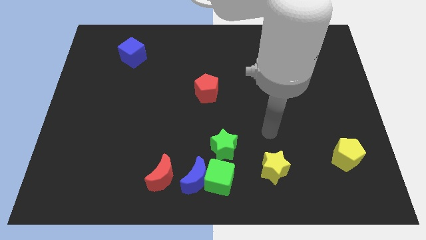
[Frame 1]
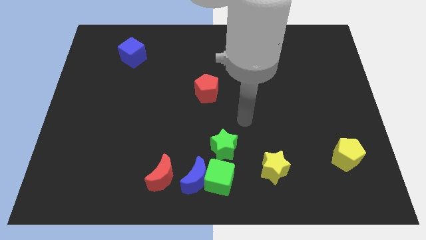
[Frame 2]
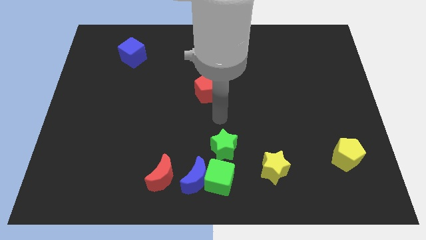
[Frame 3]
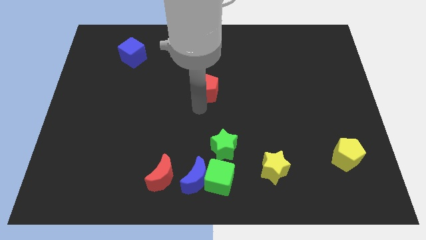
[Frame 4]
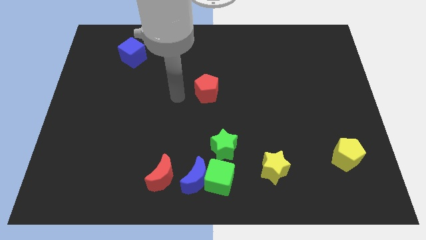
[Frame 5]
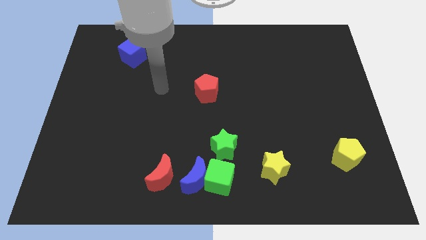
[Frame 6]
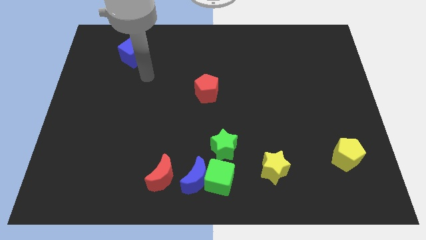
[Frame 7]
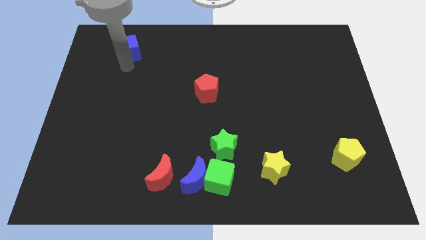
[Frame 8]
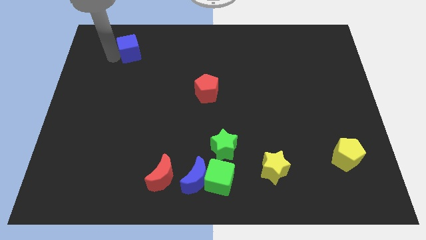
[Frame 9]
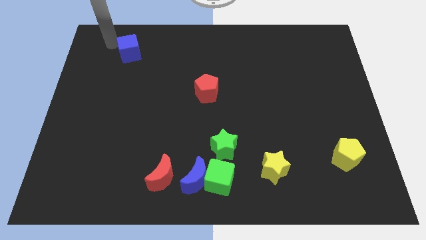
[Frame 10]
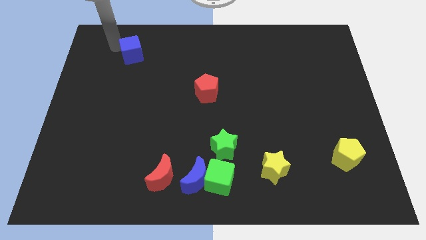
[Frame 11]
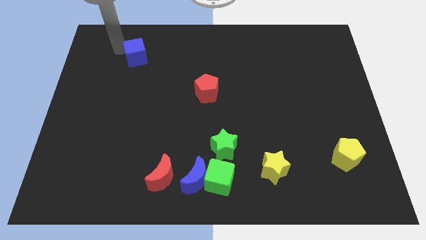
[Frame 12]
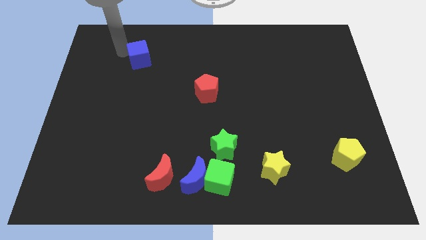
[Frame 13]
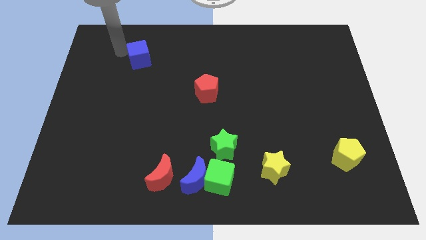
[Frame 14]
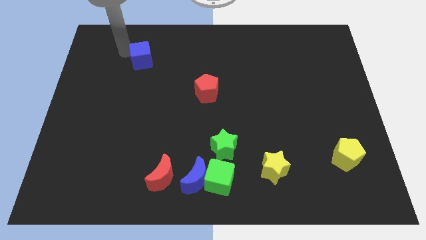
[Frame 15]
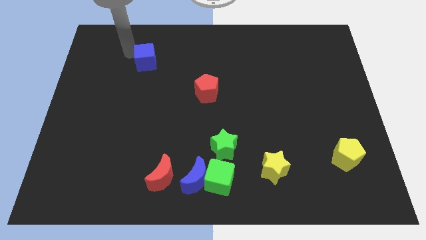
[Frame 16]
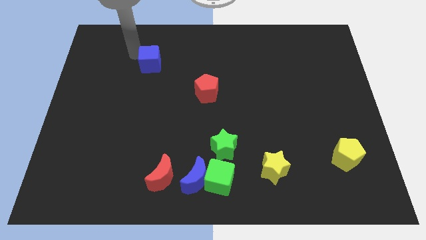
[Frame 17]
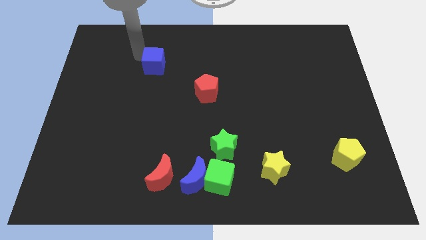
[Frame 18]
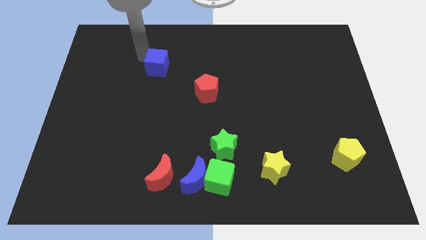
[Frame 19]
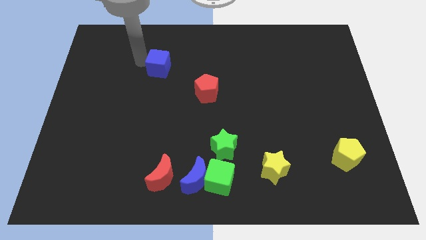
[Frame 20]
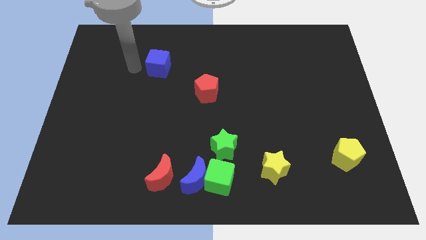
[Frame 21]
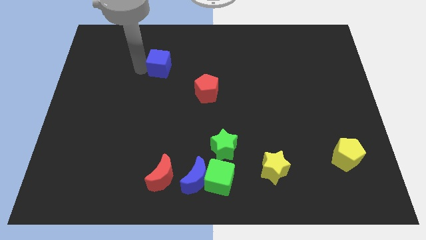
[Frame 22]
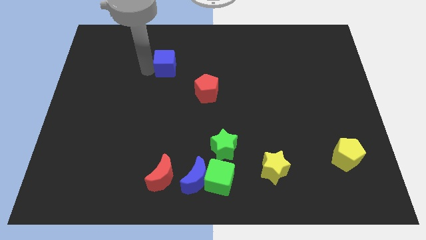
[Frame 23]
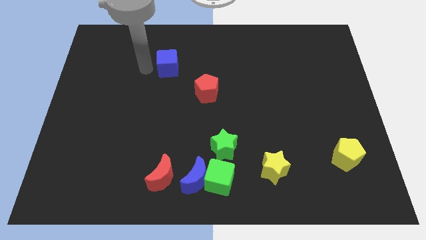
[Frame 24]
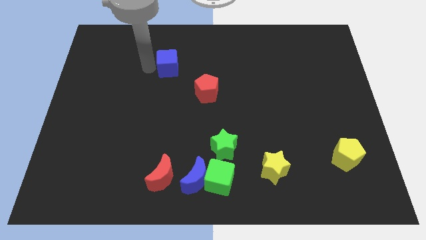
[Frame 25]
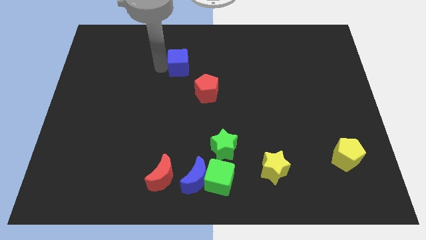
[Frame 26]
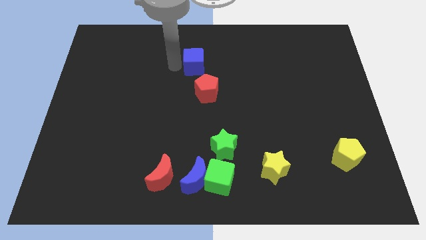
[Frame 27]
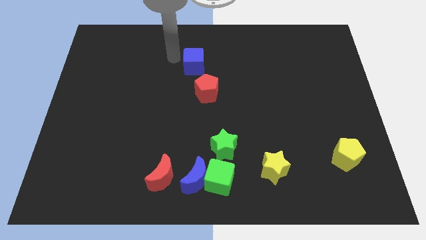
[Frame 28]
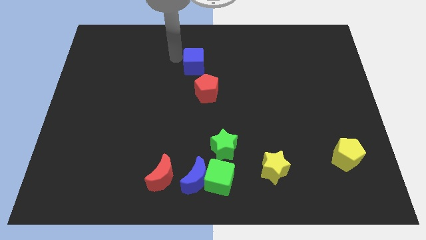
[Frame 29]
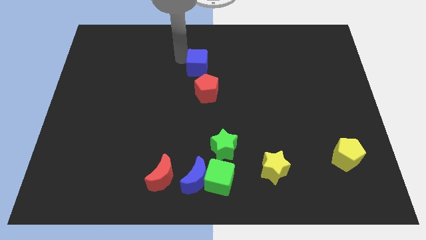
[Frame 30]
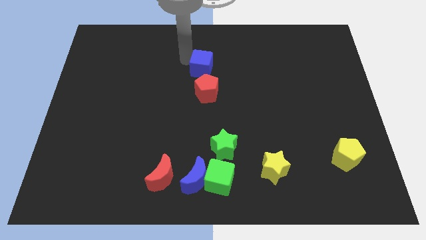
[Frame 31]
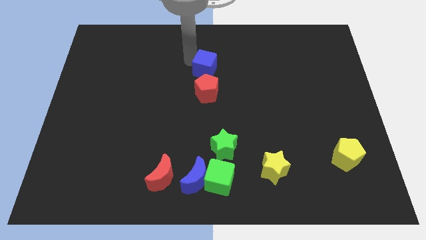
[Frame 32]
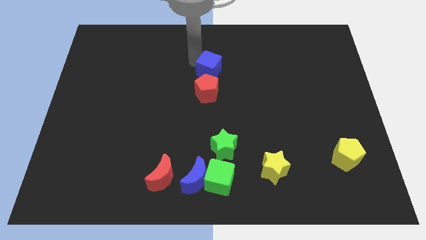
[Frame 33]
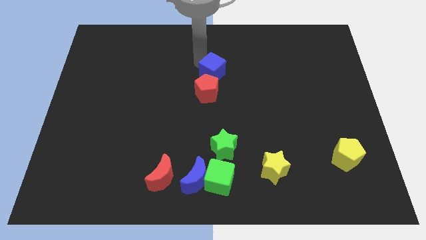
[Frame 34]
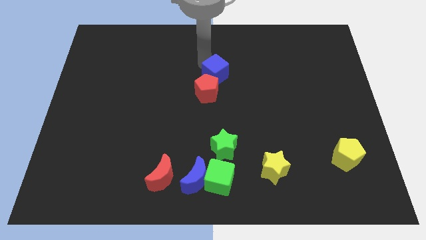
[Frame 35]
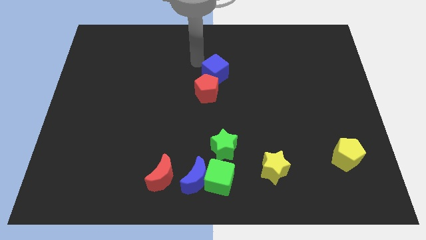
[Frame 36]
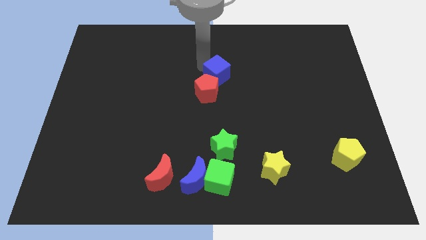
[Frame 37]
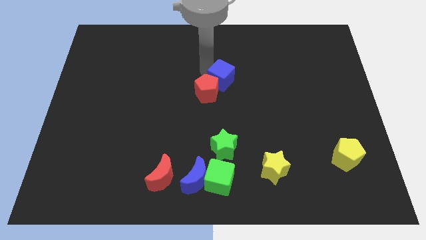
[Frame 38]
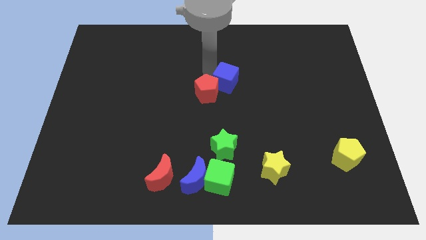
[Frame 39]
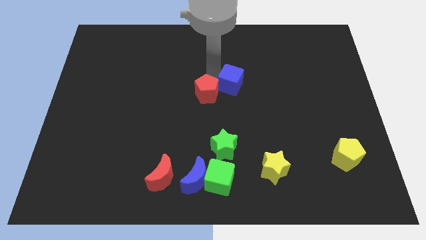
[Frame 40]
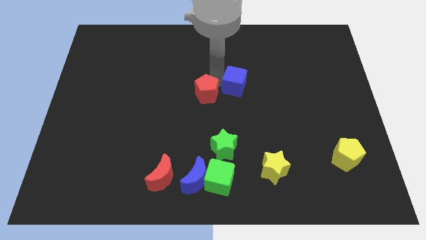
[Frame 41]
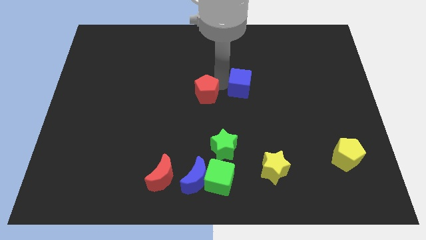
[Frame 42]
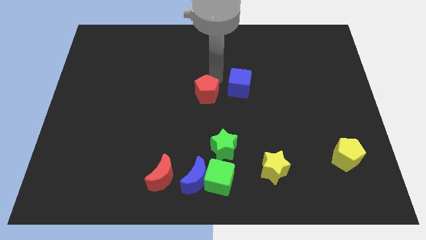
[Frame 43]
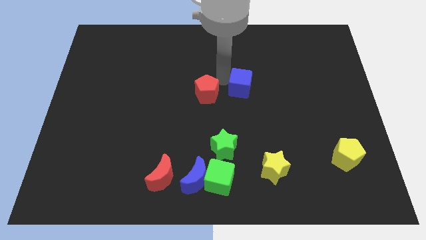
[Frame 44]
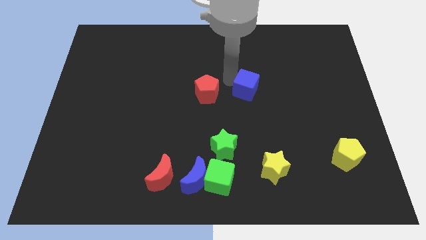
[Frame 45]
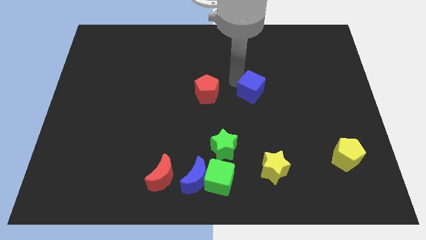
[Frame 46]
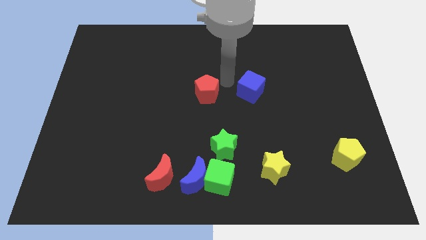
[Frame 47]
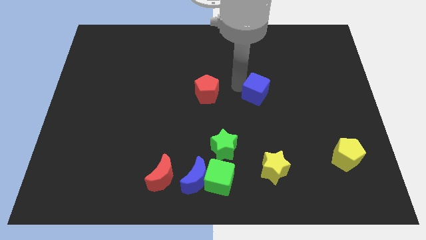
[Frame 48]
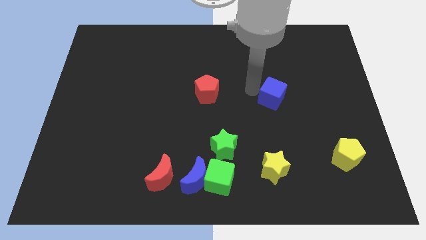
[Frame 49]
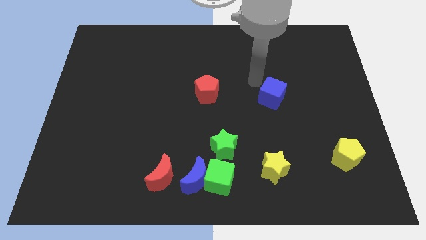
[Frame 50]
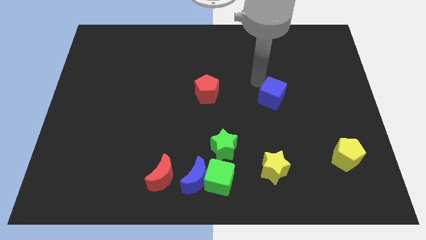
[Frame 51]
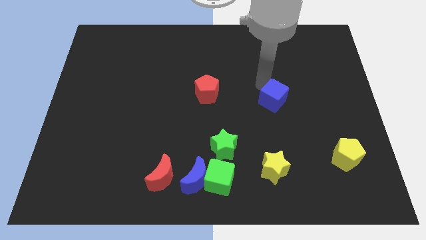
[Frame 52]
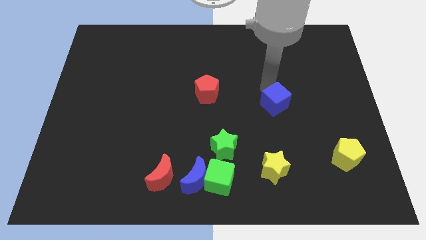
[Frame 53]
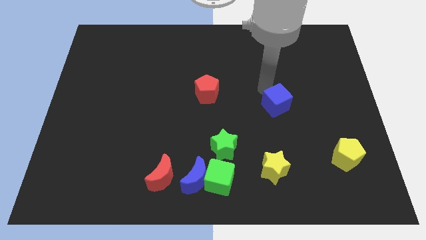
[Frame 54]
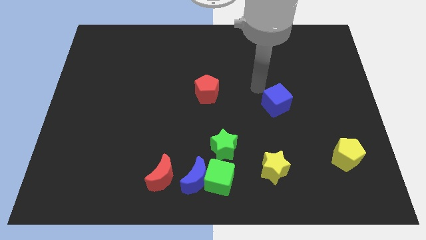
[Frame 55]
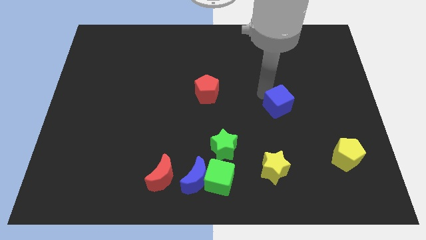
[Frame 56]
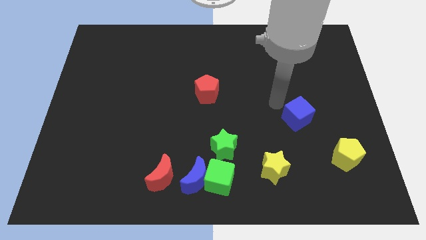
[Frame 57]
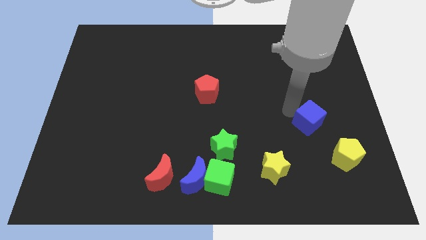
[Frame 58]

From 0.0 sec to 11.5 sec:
put the blue cube diagonally up and to the left of the yellow pentagon

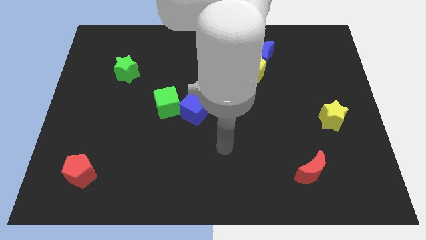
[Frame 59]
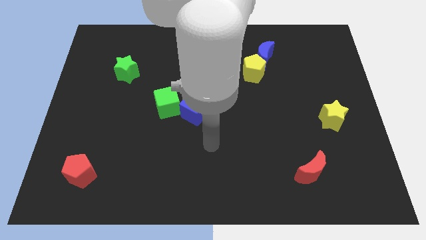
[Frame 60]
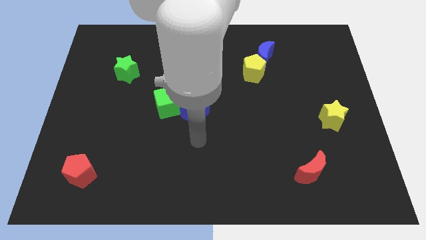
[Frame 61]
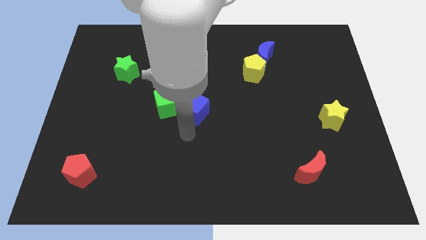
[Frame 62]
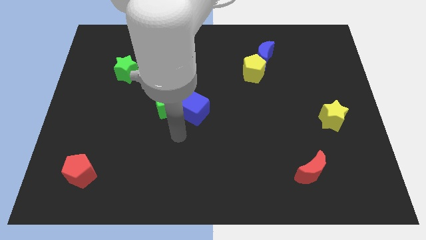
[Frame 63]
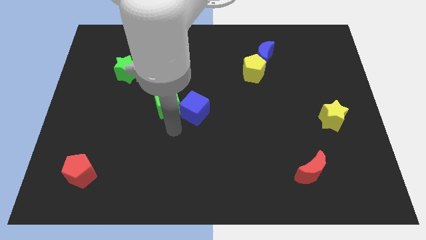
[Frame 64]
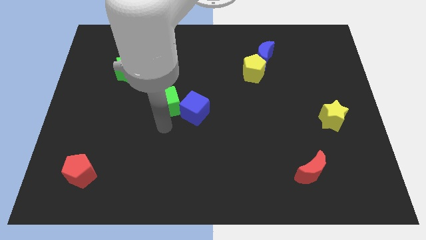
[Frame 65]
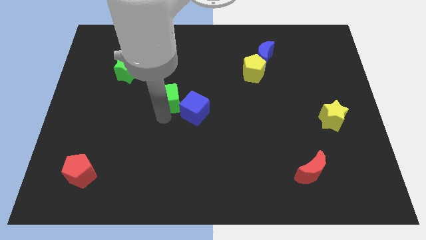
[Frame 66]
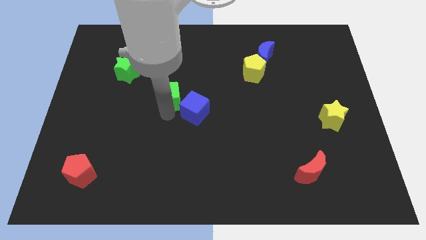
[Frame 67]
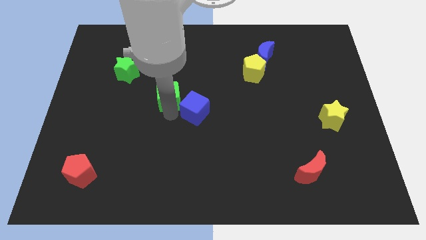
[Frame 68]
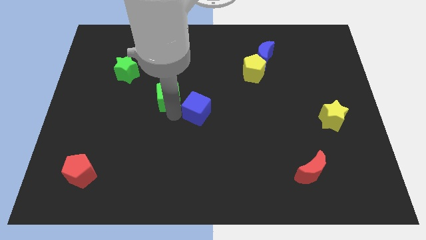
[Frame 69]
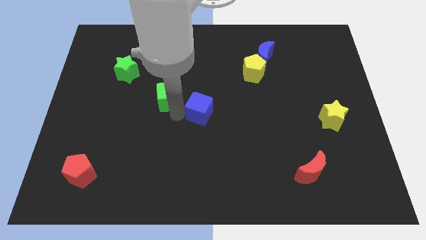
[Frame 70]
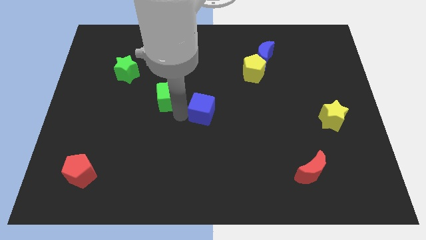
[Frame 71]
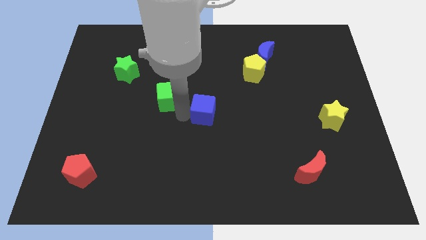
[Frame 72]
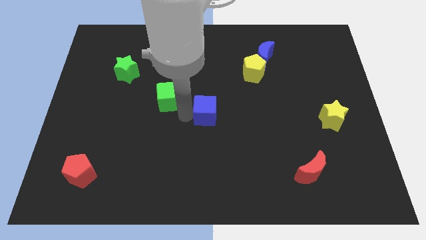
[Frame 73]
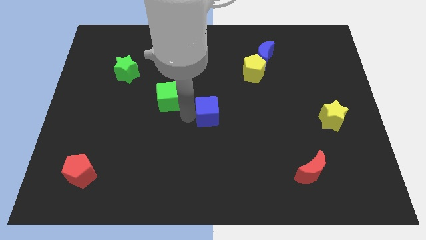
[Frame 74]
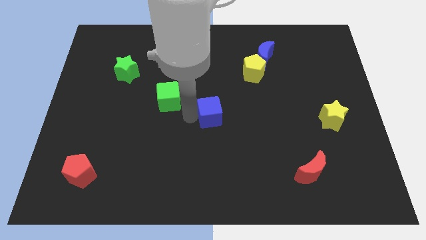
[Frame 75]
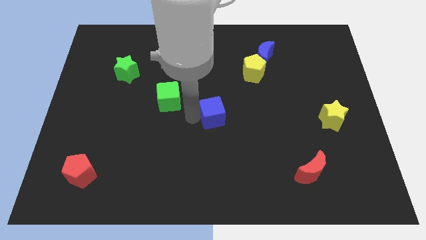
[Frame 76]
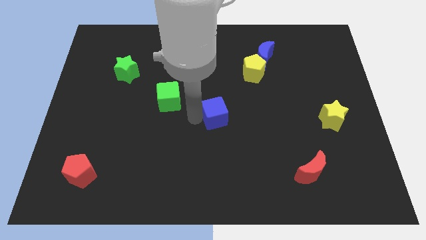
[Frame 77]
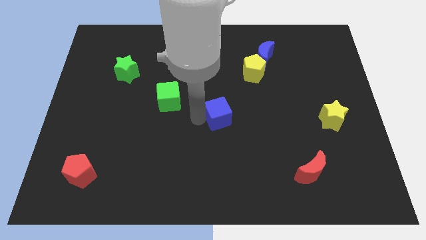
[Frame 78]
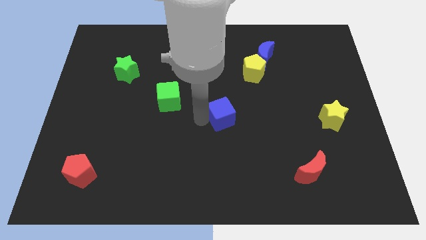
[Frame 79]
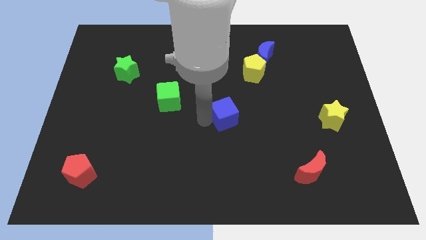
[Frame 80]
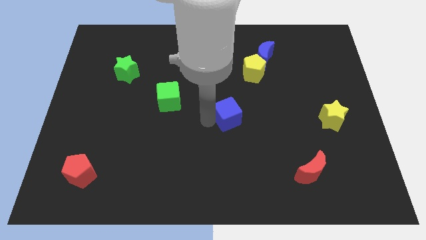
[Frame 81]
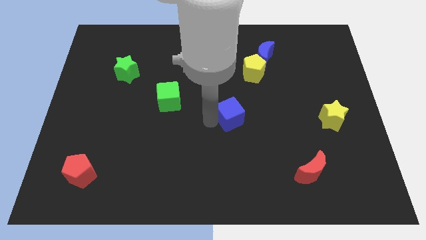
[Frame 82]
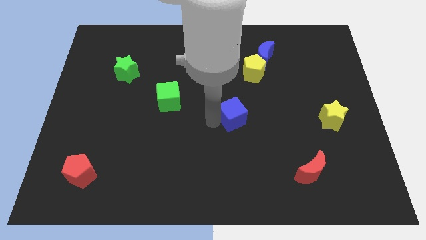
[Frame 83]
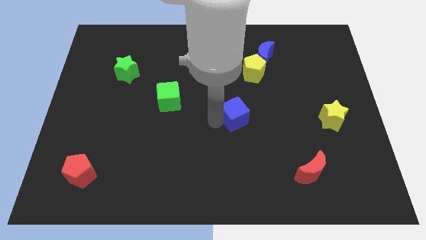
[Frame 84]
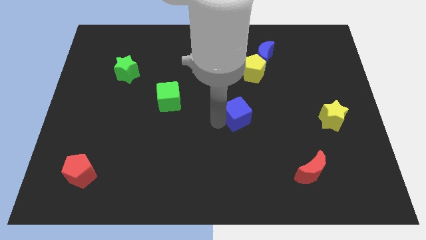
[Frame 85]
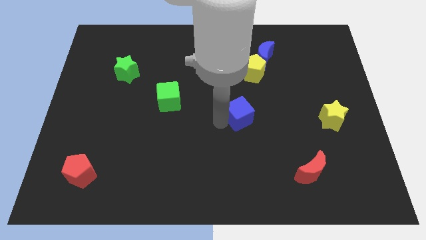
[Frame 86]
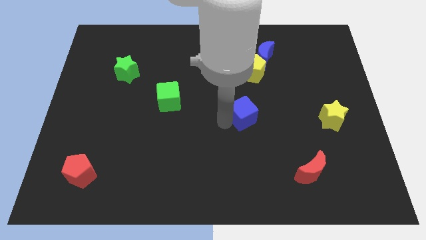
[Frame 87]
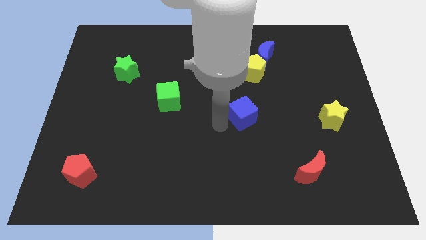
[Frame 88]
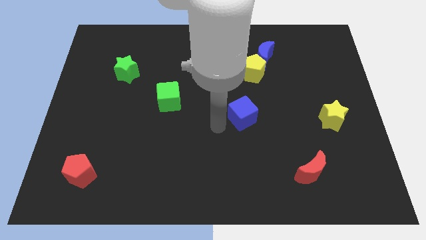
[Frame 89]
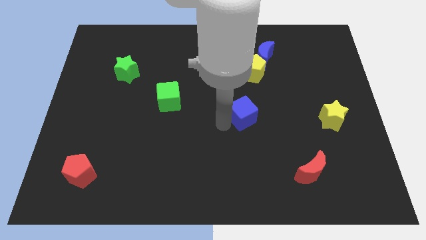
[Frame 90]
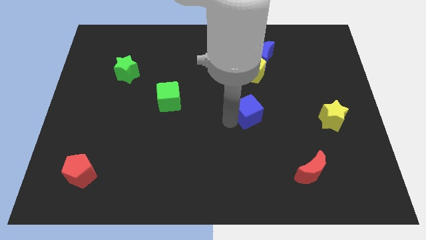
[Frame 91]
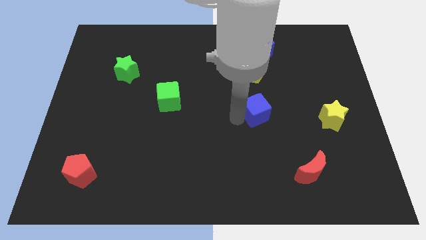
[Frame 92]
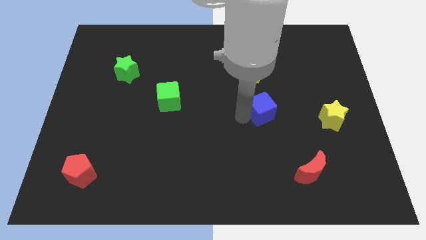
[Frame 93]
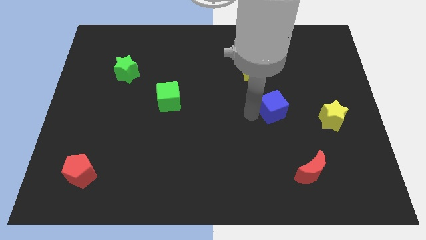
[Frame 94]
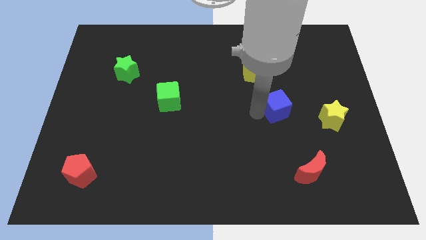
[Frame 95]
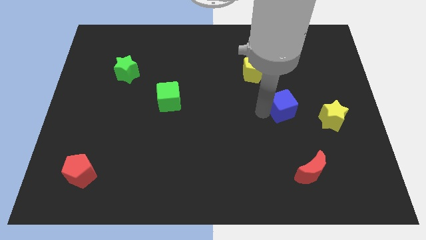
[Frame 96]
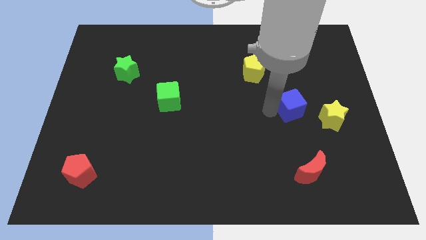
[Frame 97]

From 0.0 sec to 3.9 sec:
slide the blue cube to the top left side of the yellow star
